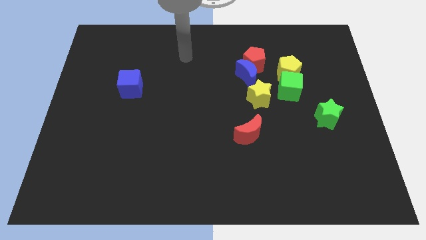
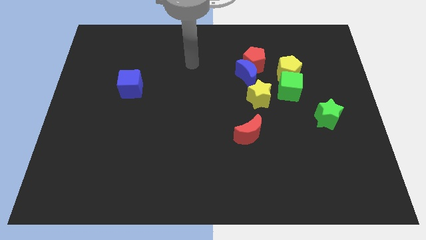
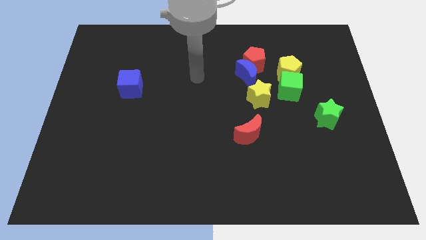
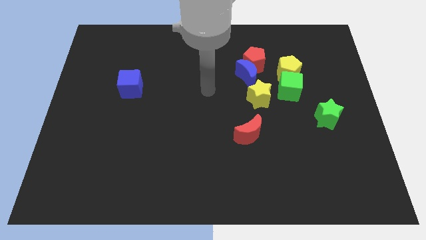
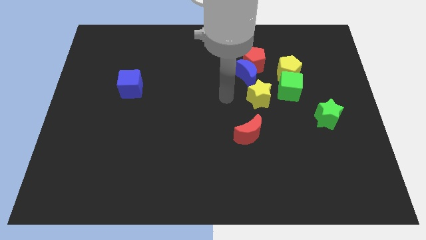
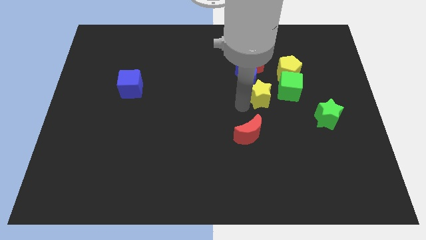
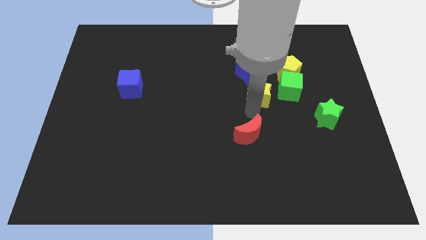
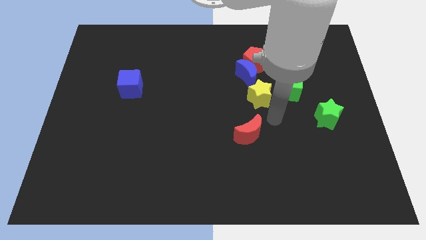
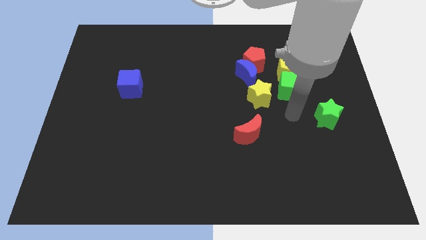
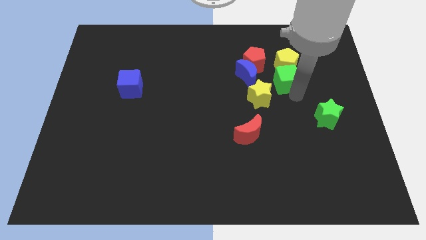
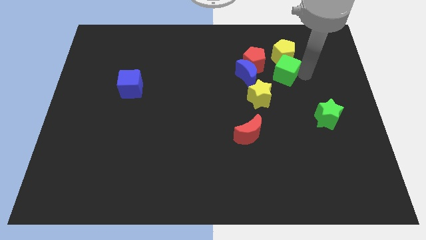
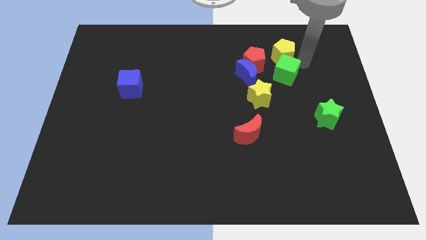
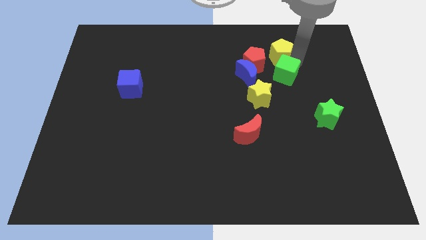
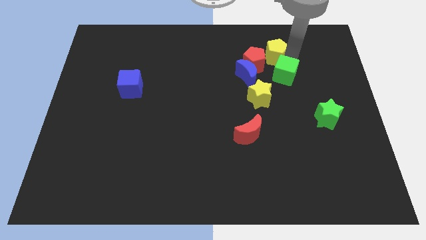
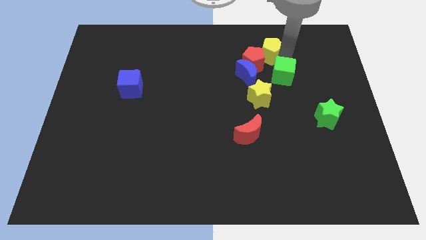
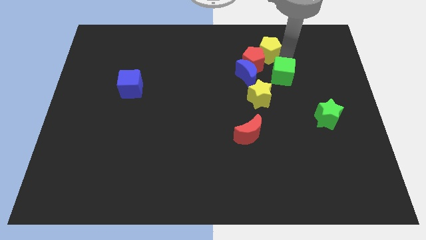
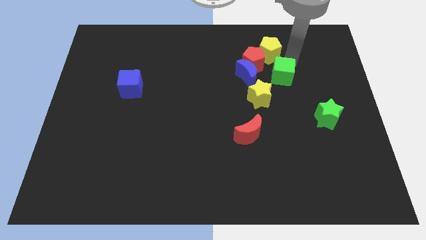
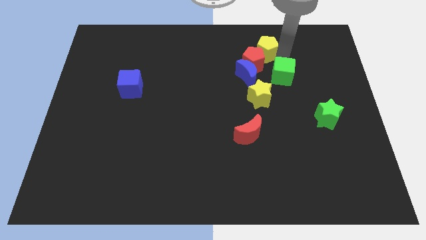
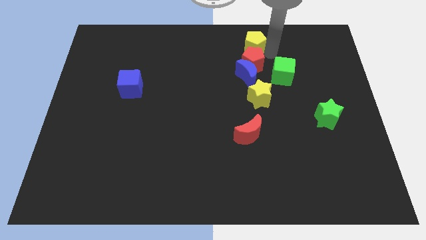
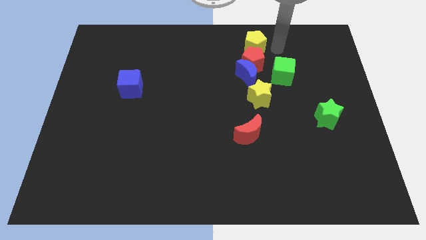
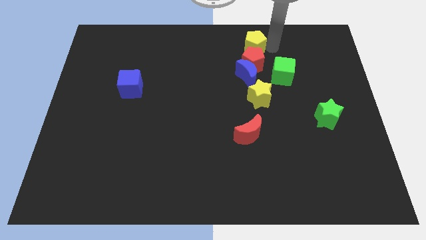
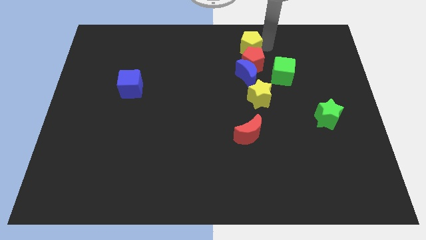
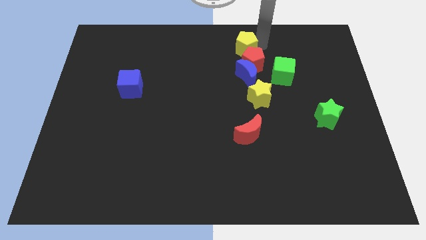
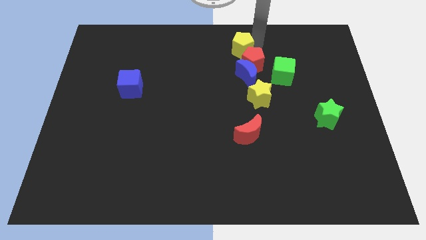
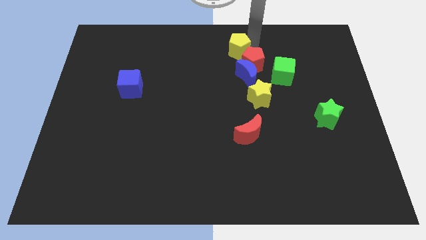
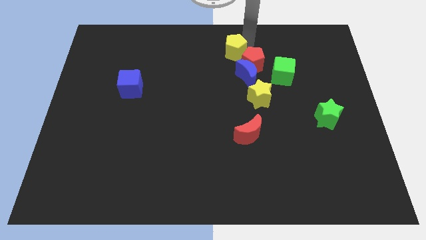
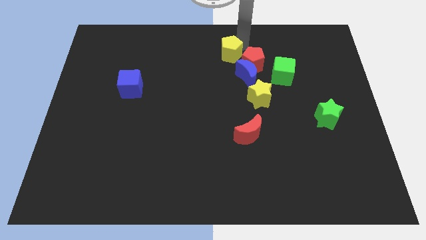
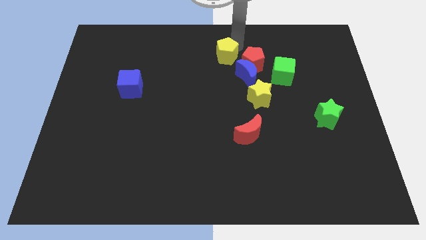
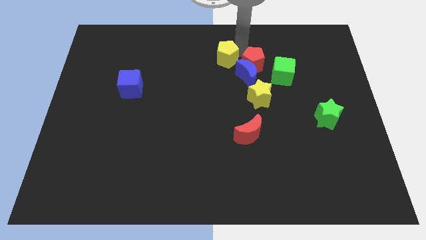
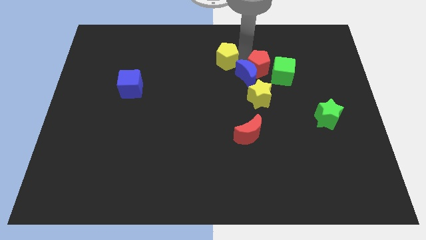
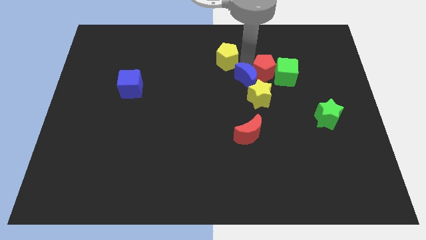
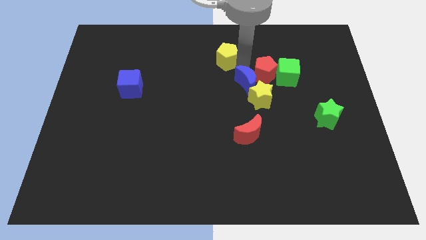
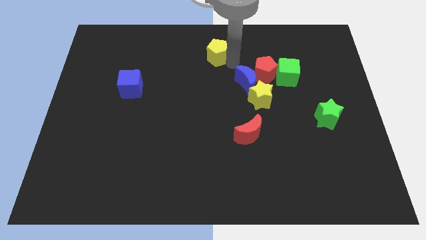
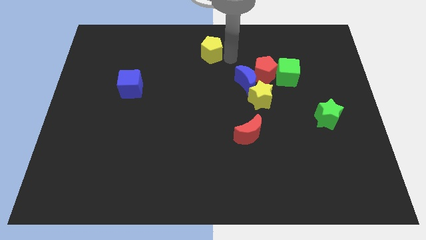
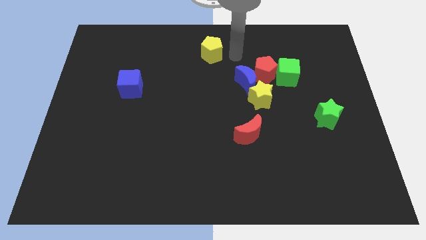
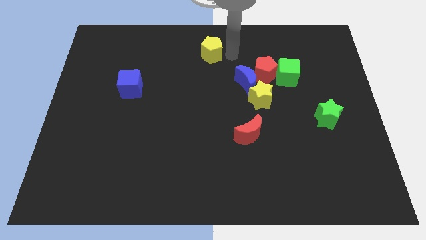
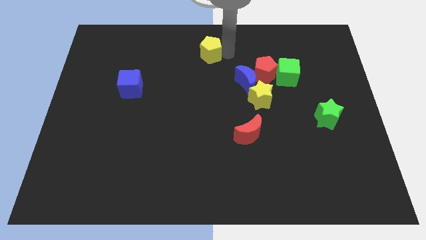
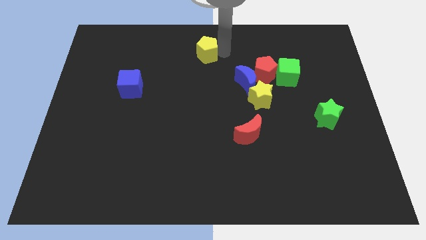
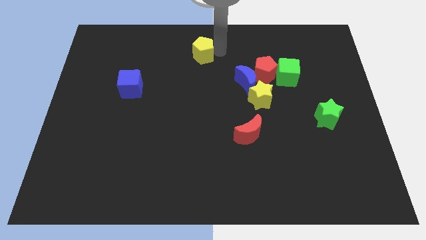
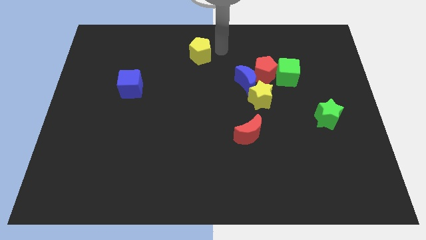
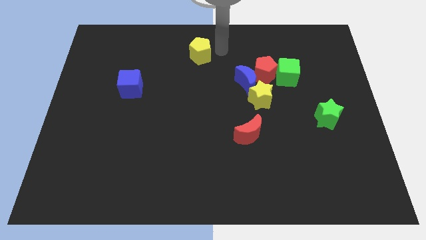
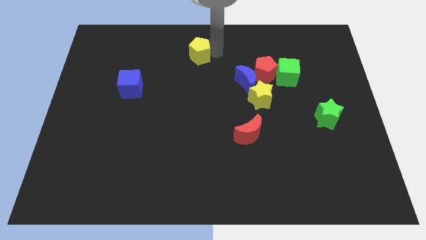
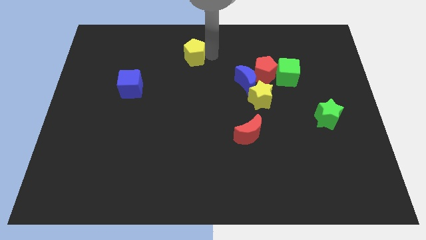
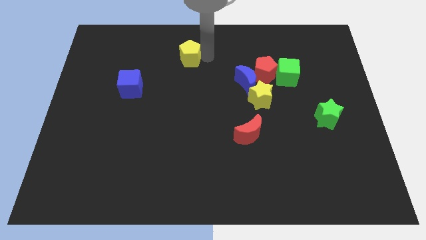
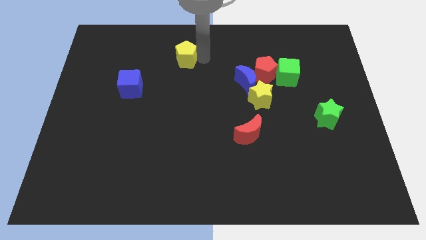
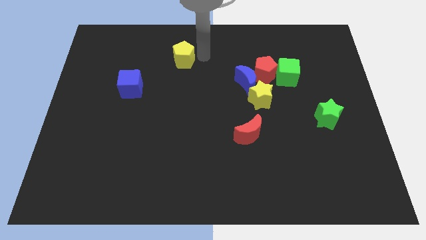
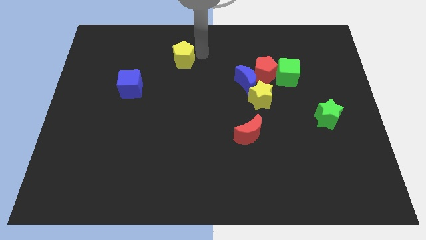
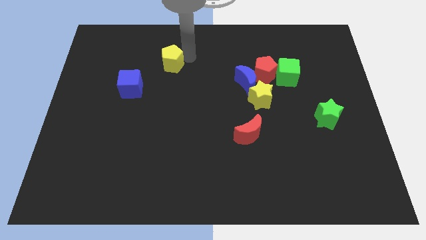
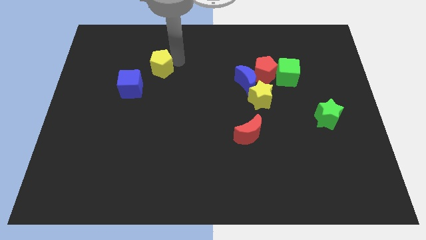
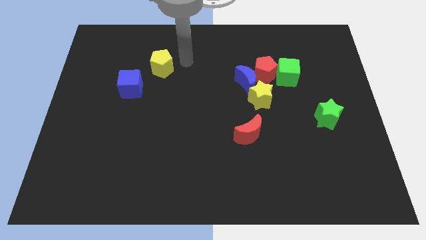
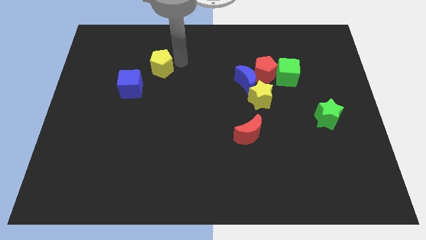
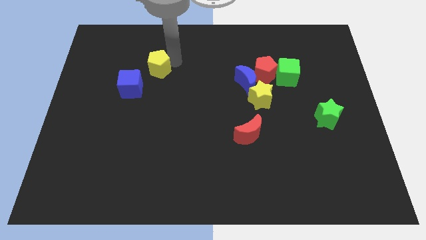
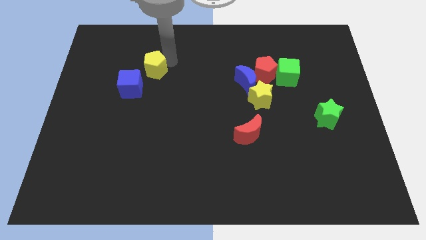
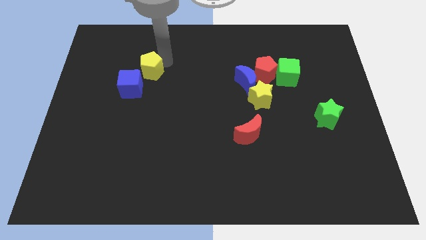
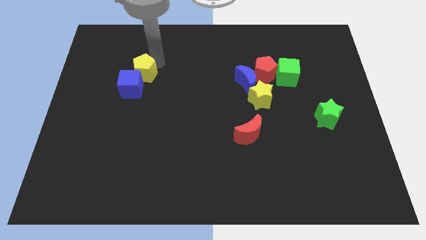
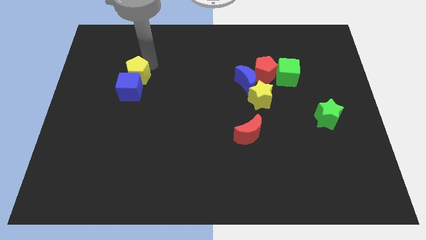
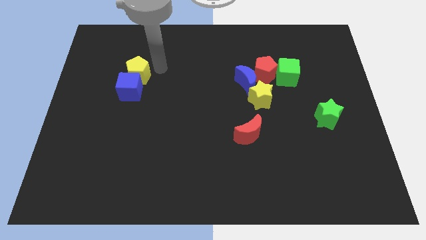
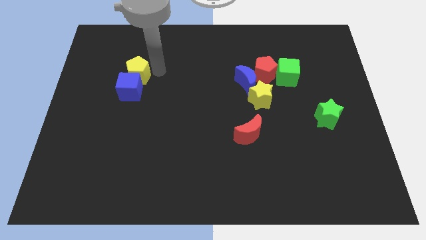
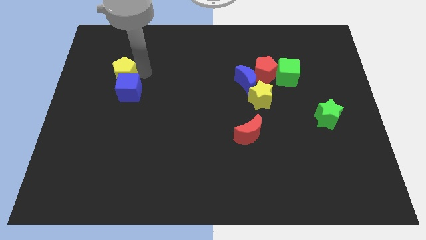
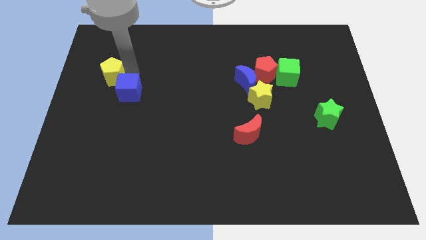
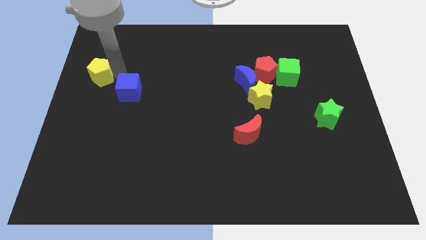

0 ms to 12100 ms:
move the yellow pentagon to the left side
